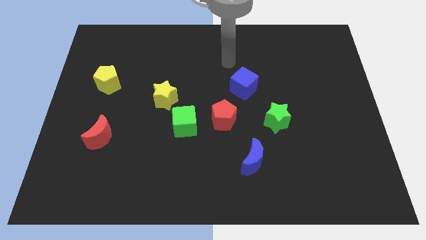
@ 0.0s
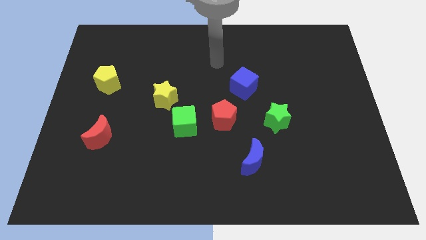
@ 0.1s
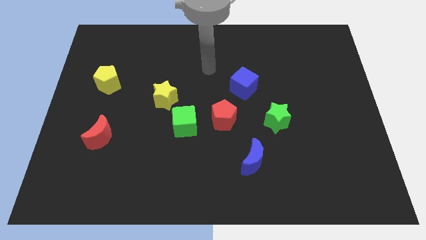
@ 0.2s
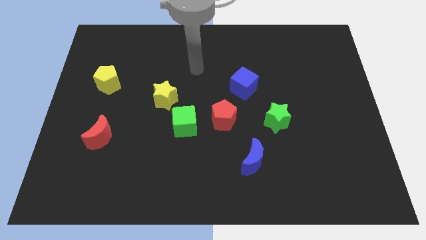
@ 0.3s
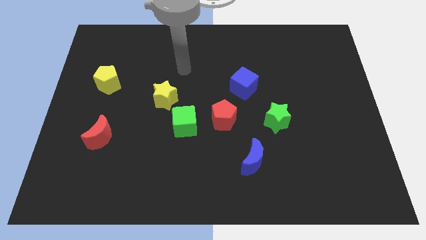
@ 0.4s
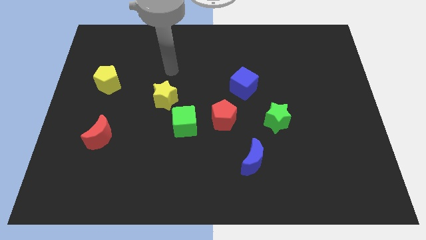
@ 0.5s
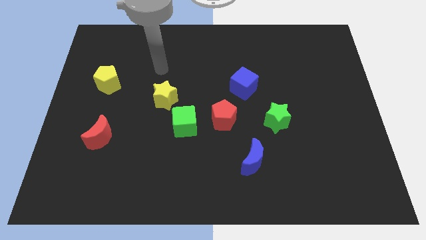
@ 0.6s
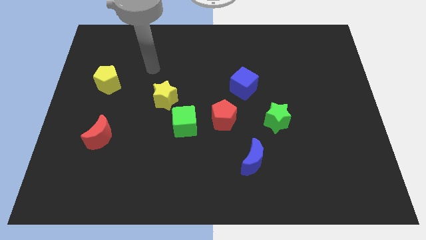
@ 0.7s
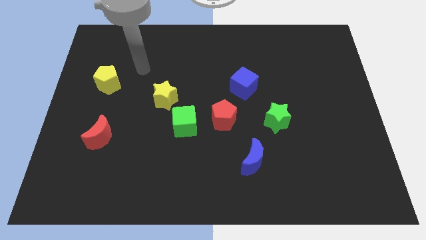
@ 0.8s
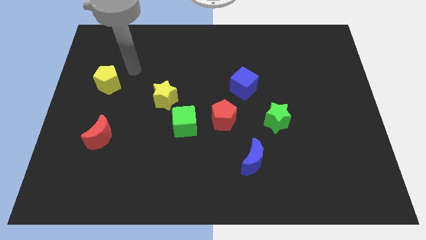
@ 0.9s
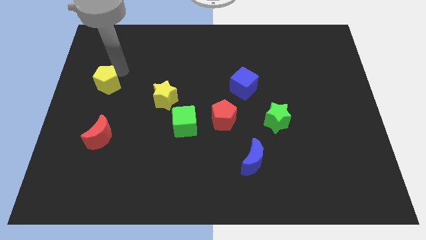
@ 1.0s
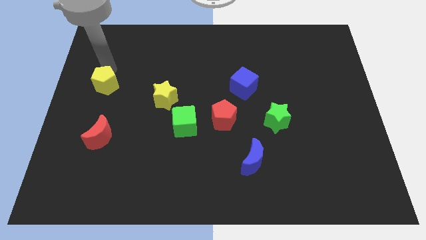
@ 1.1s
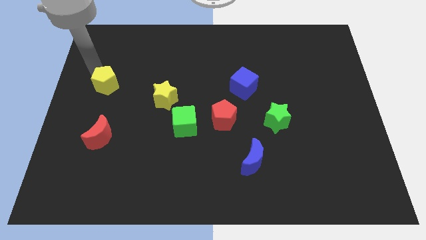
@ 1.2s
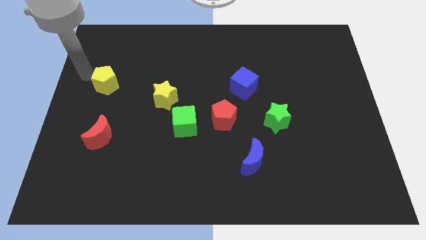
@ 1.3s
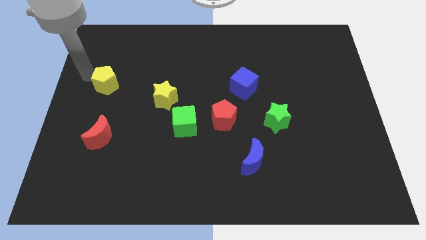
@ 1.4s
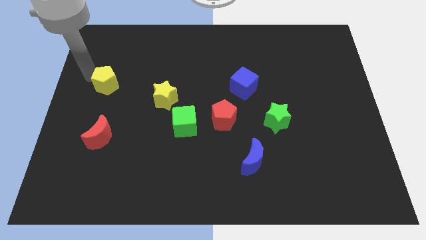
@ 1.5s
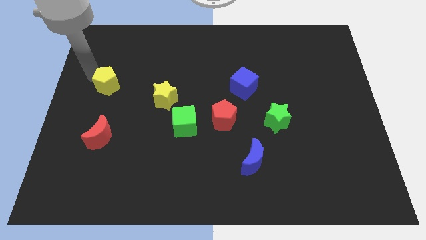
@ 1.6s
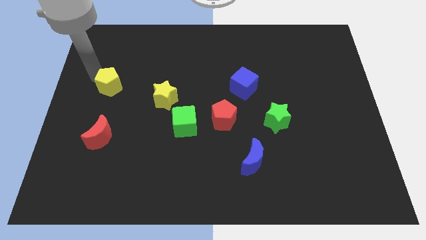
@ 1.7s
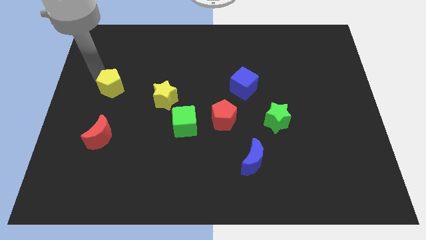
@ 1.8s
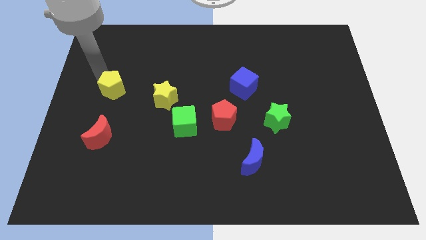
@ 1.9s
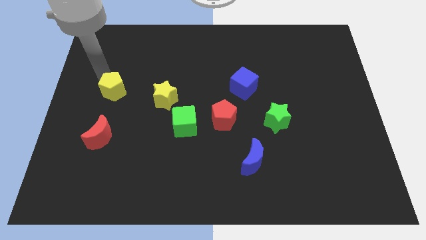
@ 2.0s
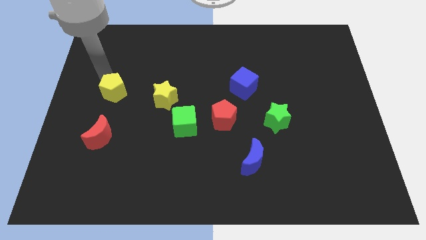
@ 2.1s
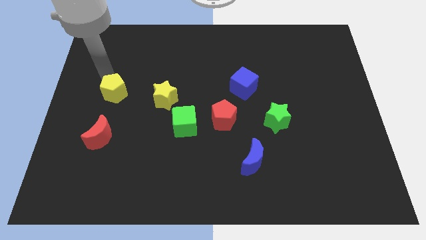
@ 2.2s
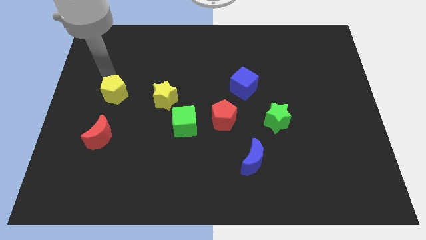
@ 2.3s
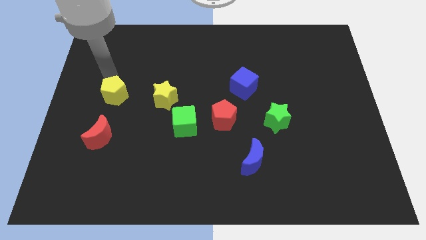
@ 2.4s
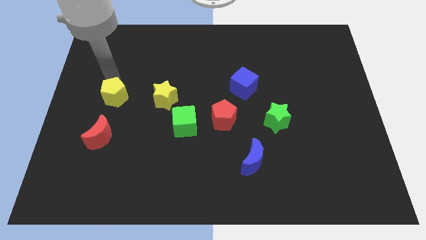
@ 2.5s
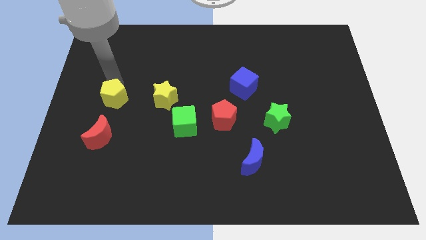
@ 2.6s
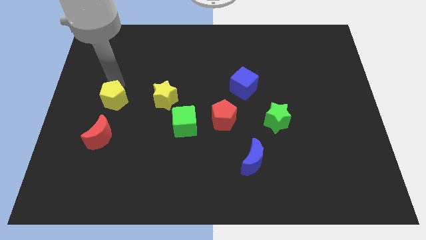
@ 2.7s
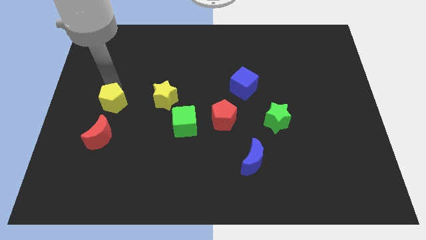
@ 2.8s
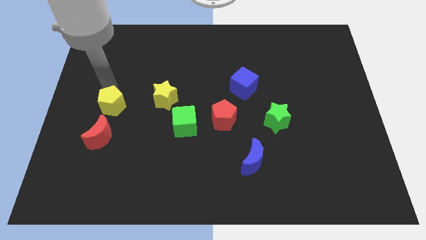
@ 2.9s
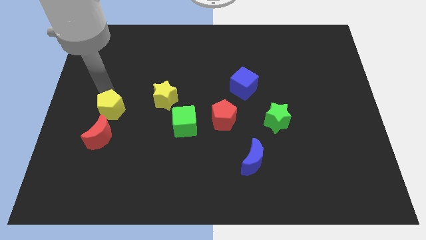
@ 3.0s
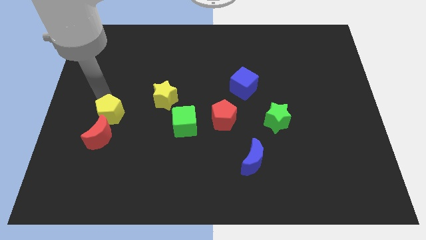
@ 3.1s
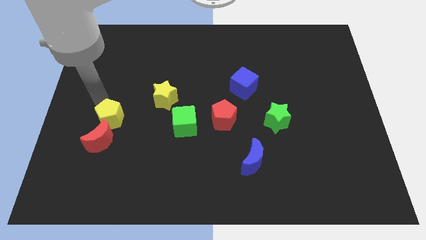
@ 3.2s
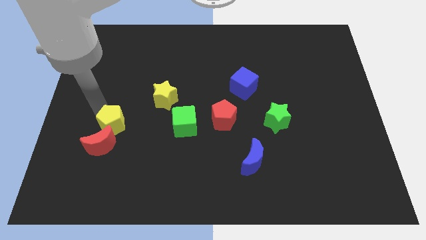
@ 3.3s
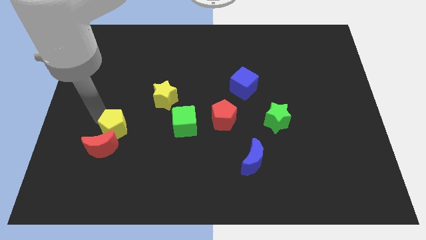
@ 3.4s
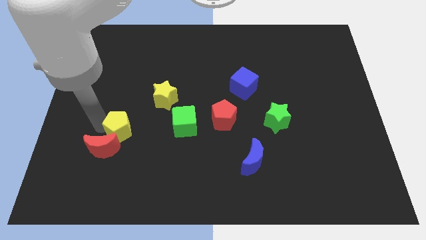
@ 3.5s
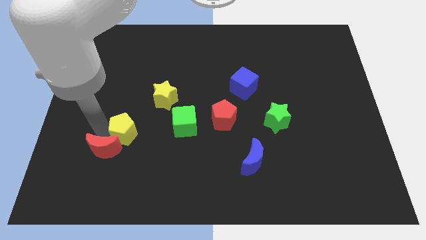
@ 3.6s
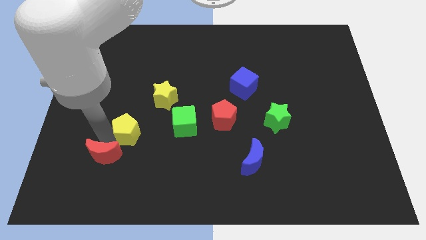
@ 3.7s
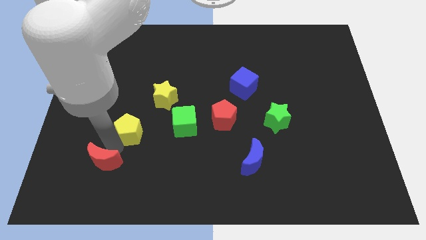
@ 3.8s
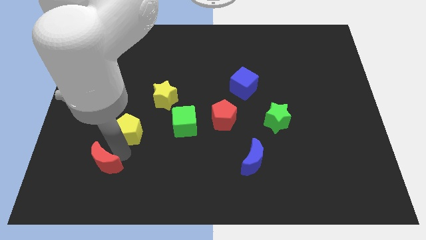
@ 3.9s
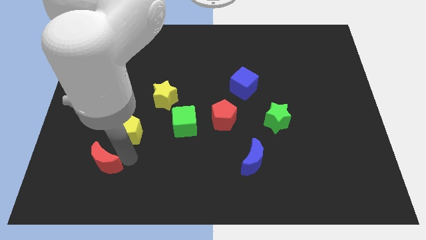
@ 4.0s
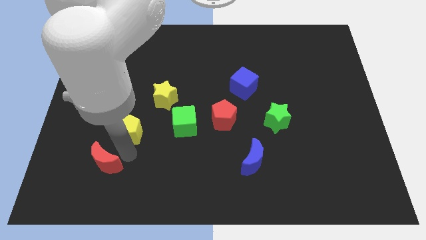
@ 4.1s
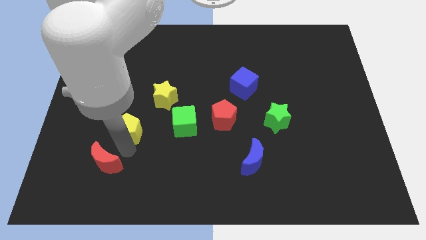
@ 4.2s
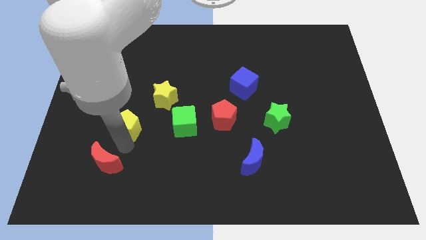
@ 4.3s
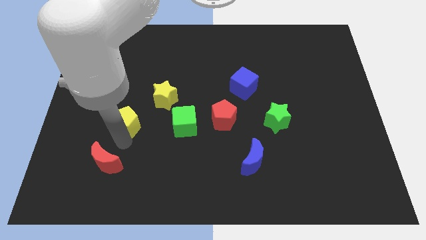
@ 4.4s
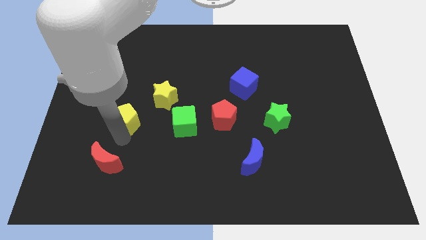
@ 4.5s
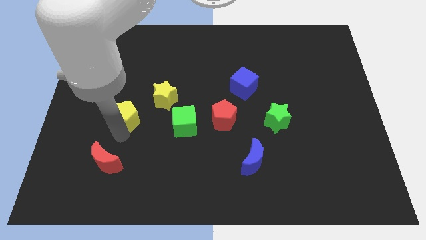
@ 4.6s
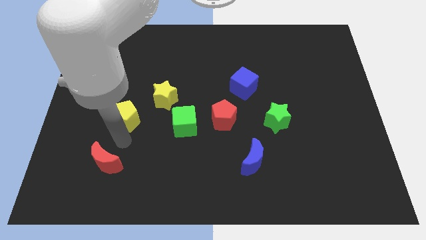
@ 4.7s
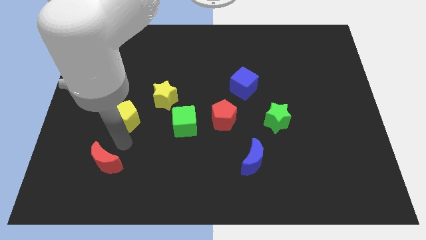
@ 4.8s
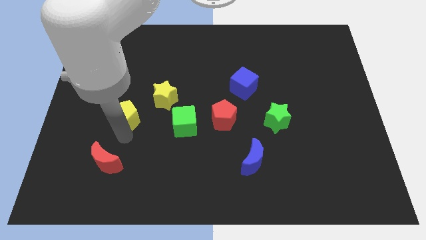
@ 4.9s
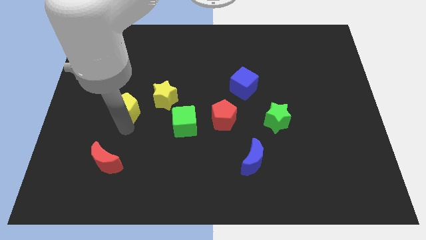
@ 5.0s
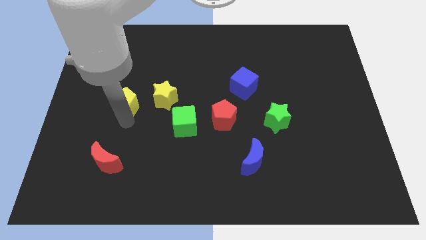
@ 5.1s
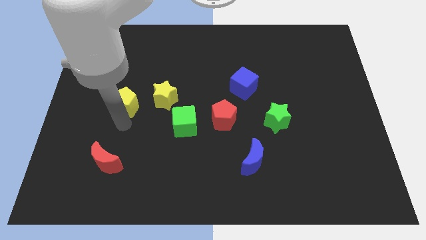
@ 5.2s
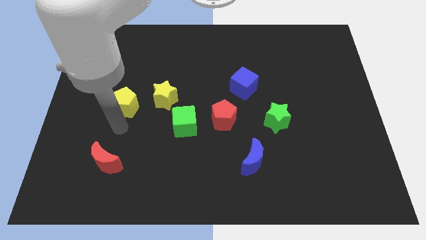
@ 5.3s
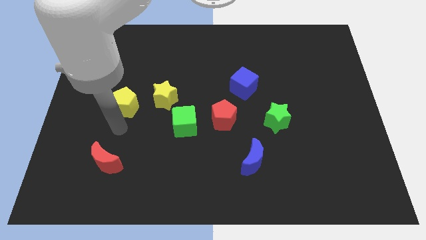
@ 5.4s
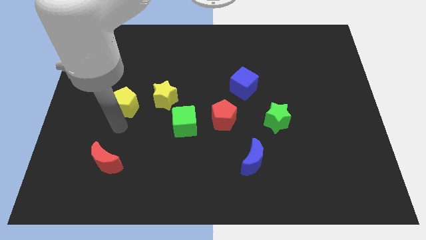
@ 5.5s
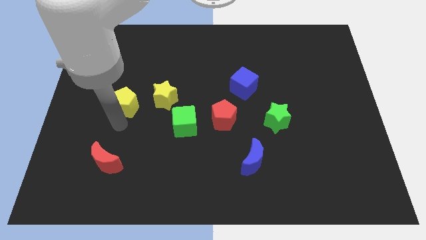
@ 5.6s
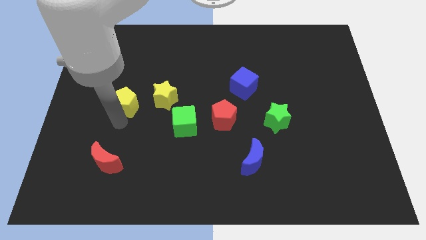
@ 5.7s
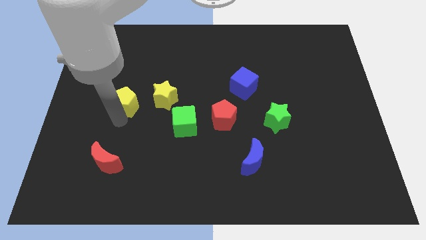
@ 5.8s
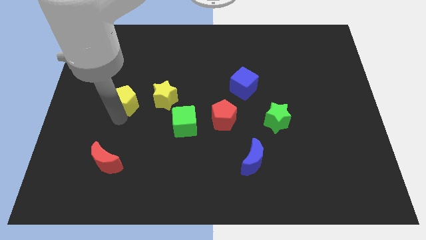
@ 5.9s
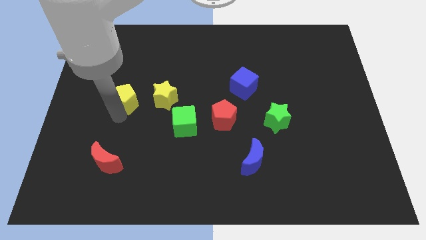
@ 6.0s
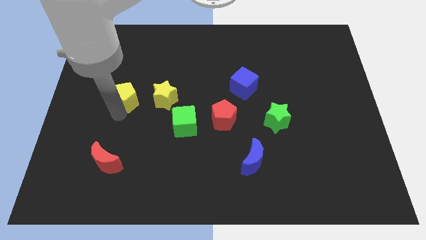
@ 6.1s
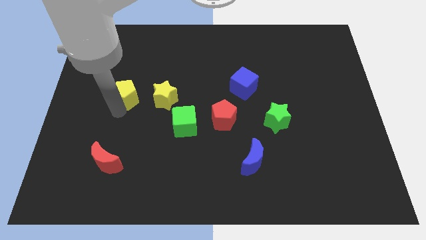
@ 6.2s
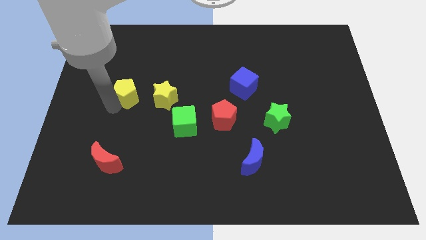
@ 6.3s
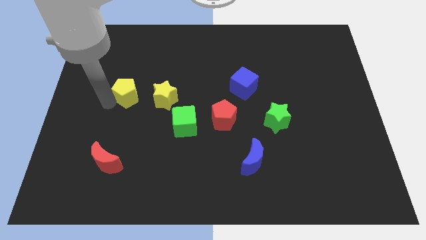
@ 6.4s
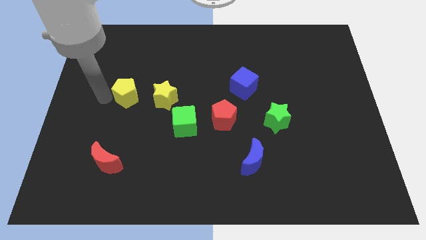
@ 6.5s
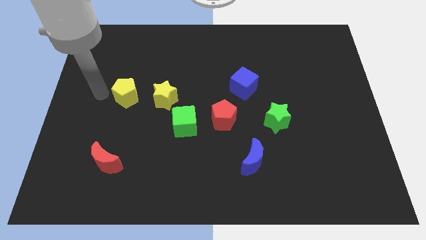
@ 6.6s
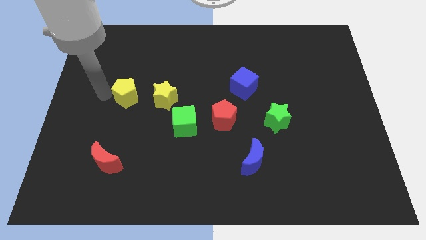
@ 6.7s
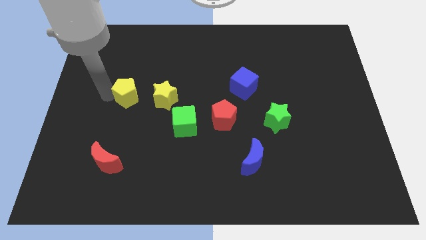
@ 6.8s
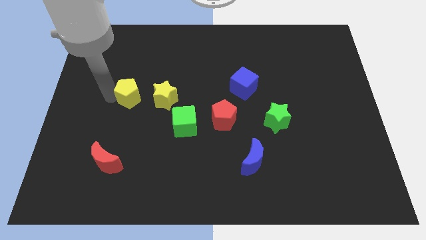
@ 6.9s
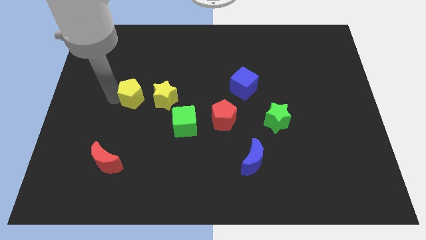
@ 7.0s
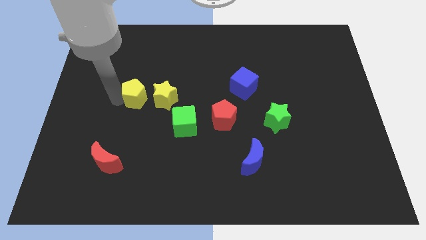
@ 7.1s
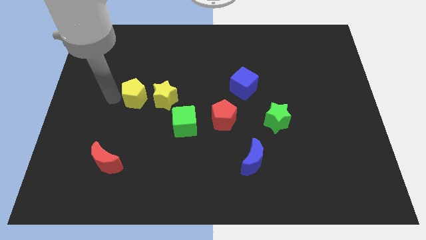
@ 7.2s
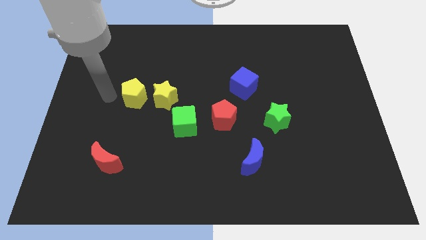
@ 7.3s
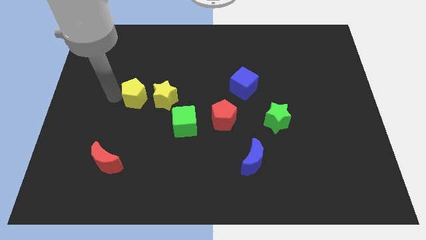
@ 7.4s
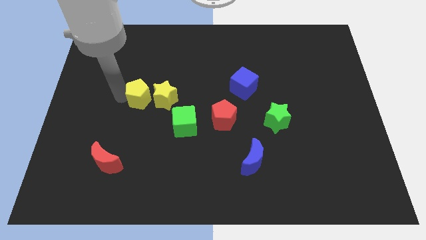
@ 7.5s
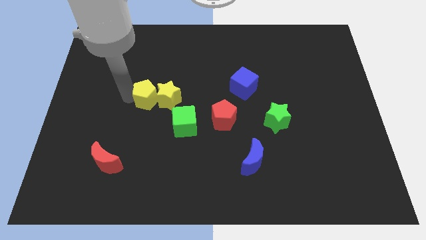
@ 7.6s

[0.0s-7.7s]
move the yellow pentagon next to the yellow star
